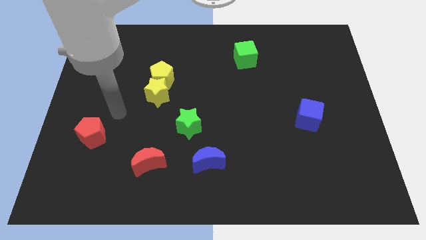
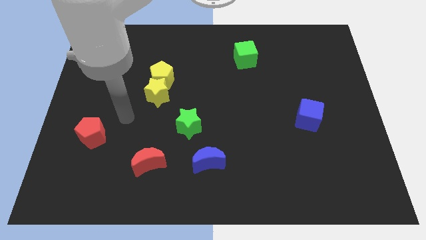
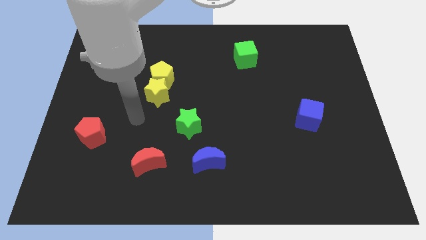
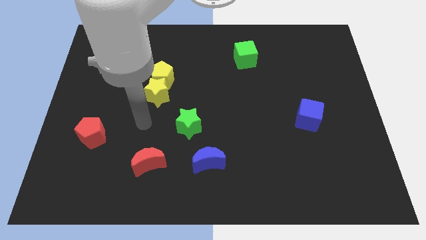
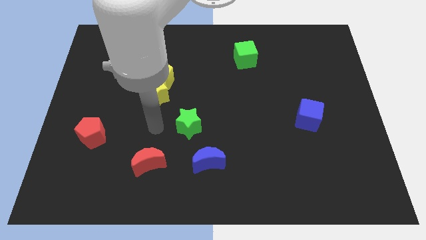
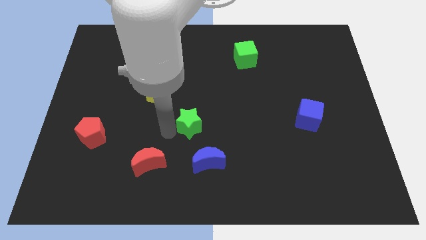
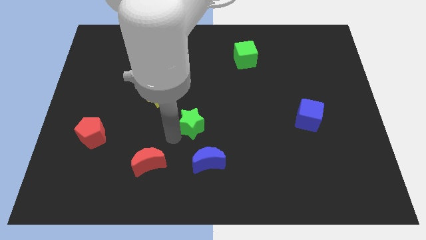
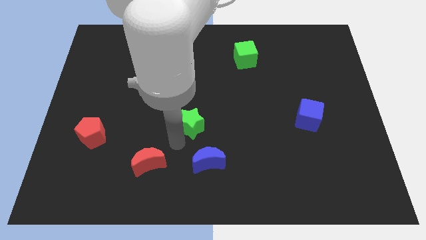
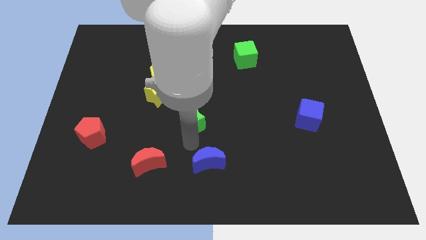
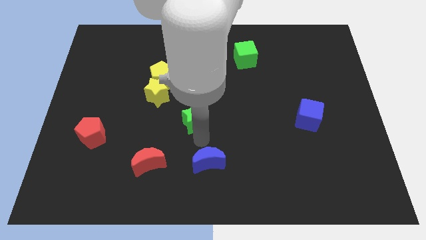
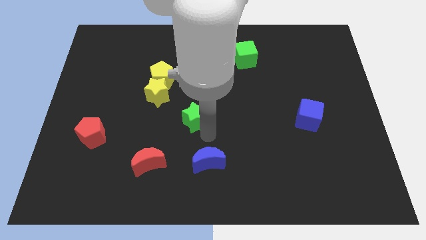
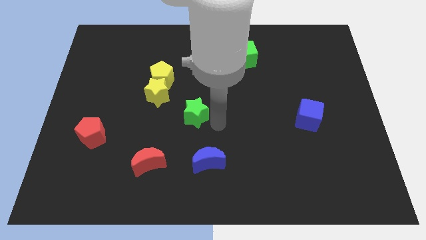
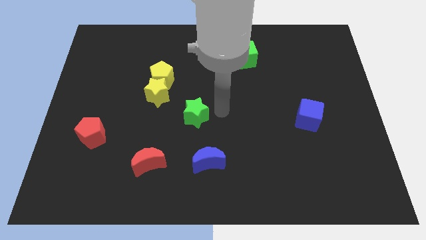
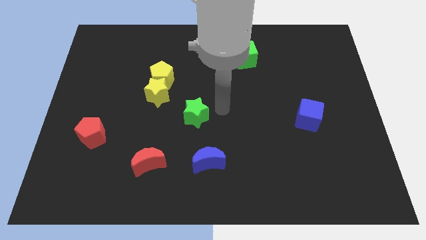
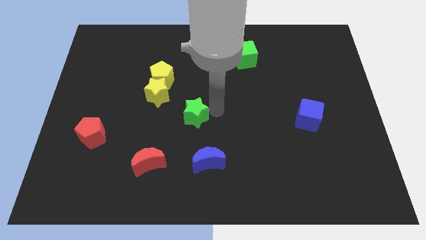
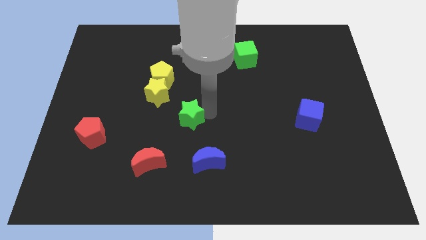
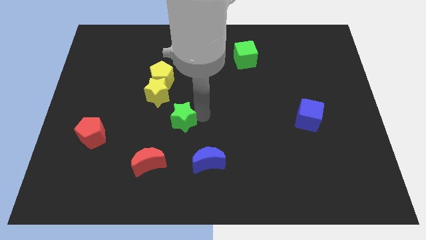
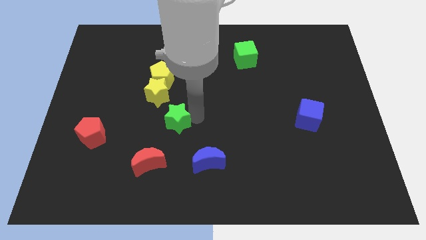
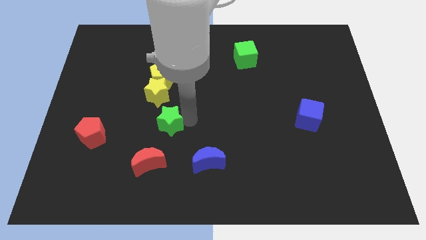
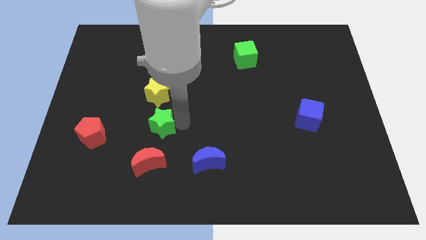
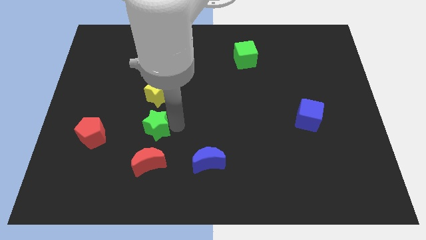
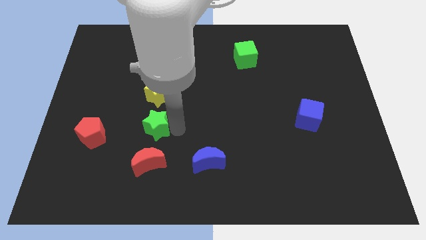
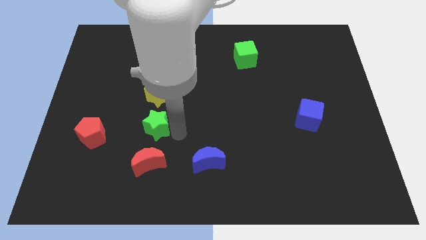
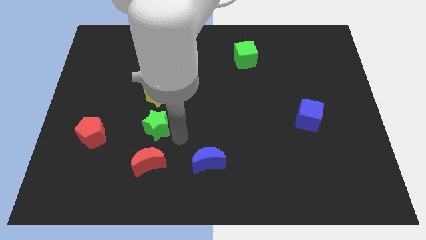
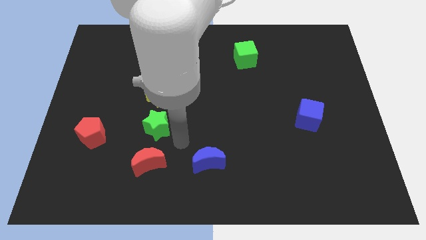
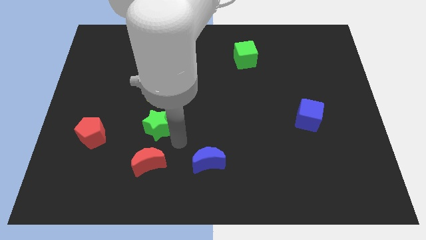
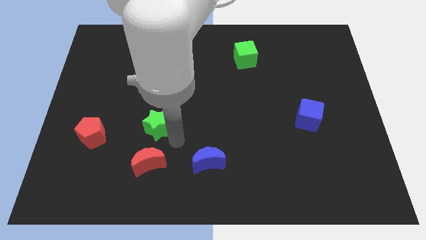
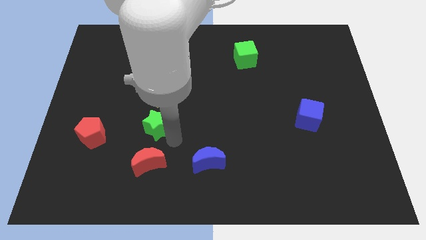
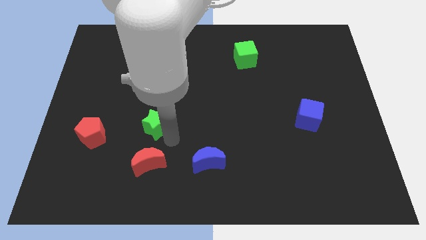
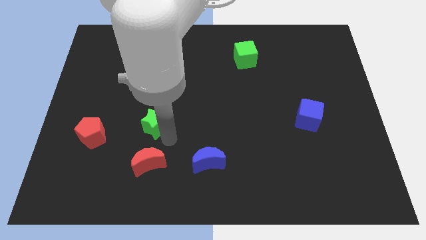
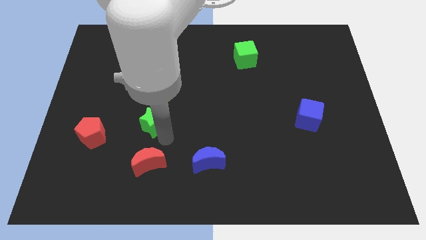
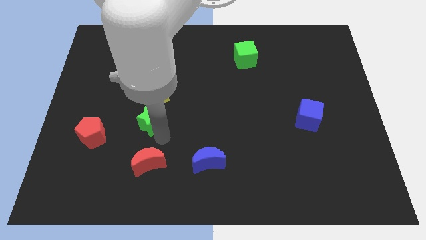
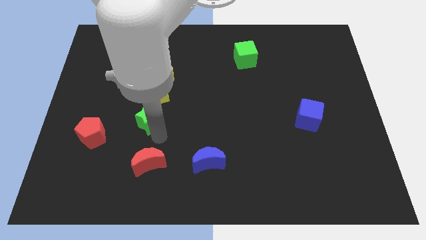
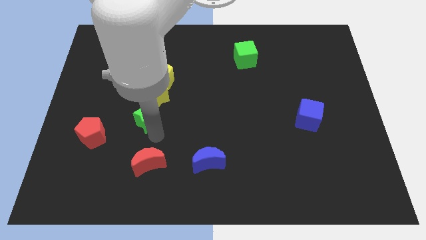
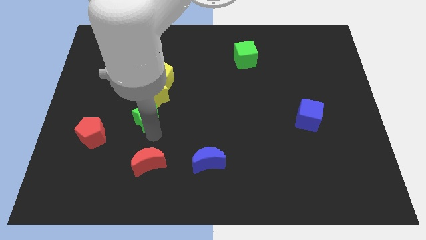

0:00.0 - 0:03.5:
push the green star slightly diagonally upwards and left

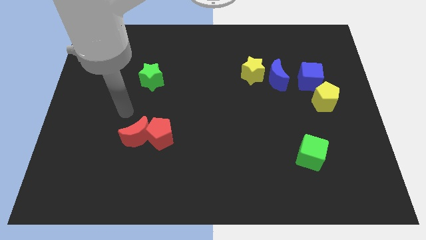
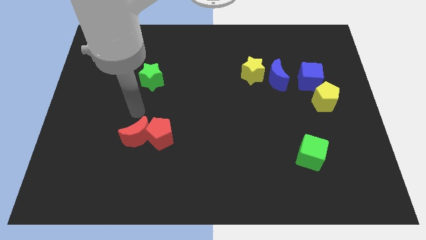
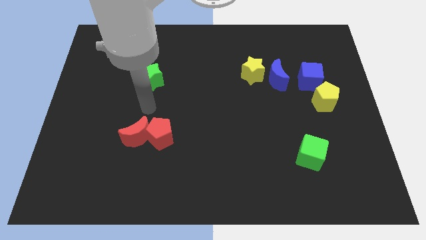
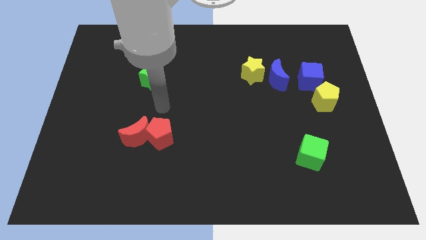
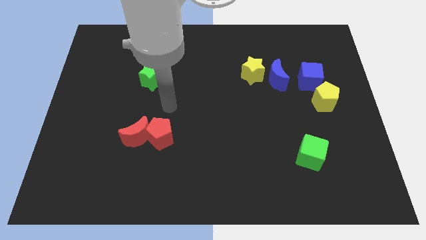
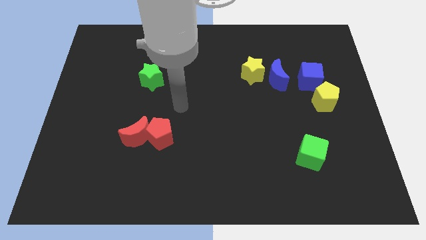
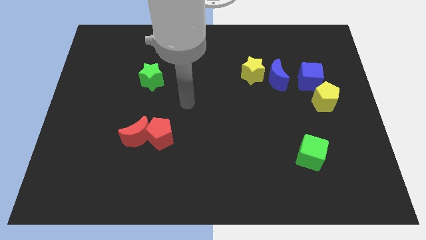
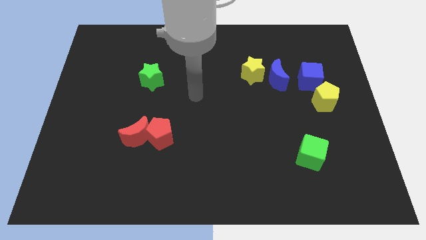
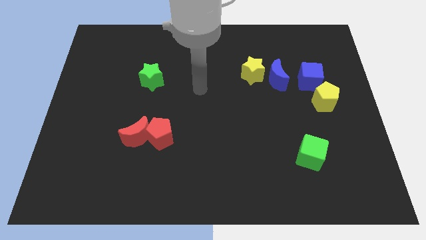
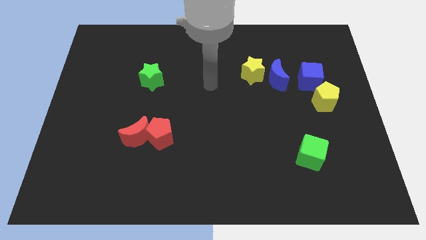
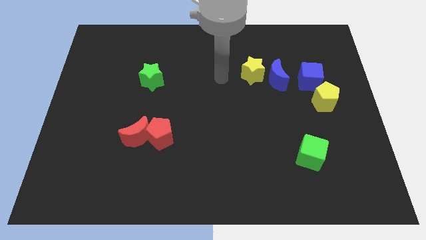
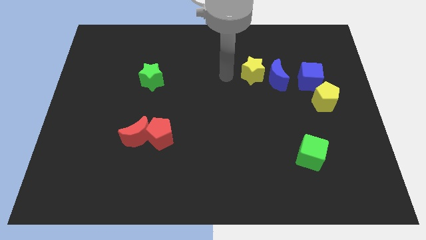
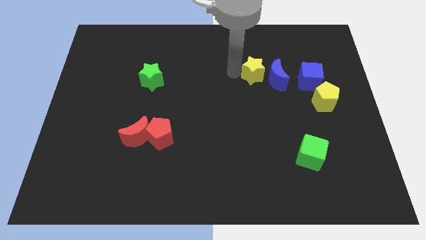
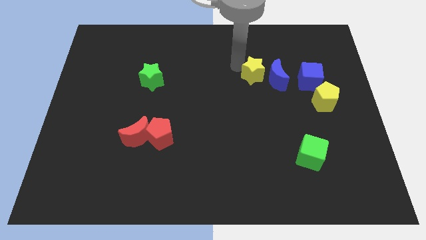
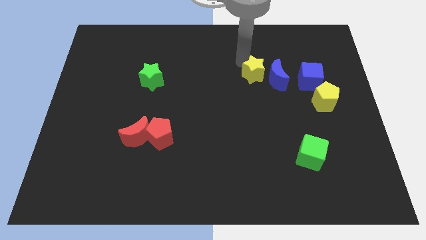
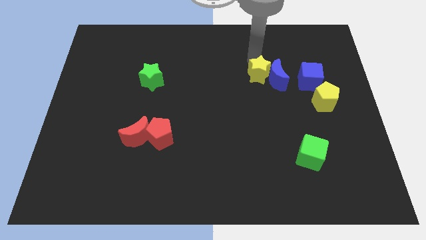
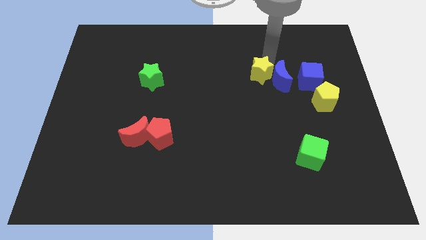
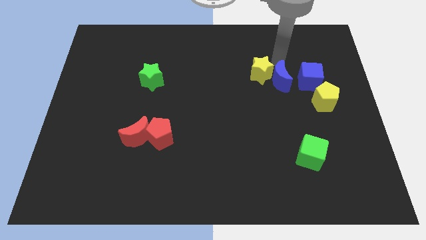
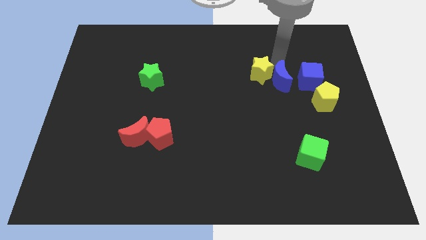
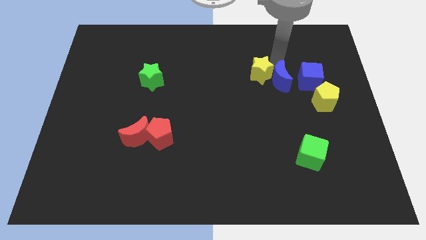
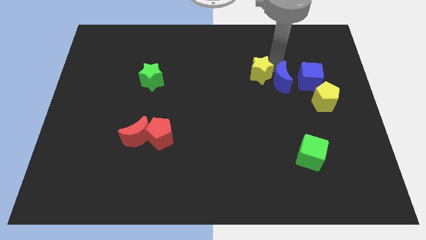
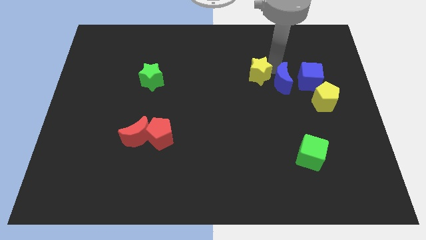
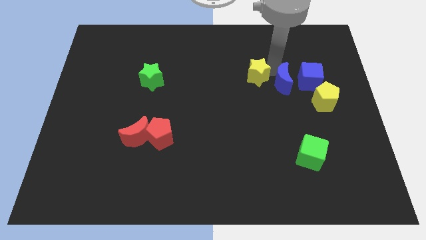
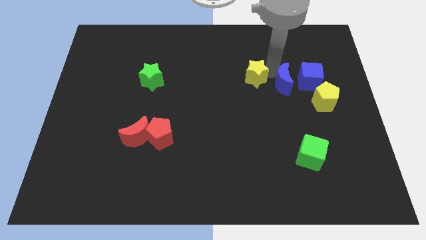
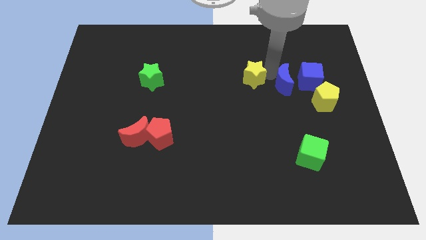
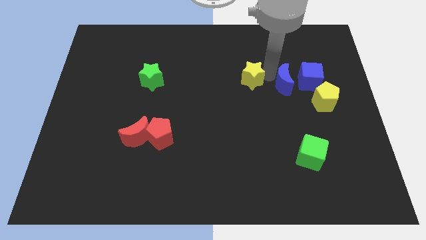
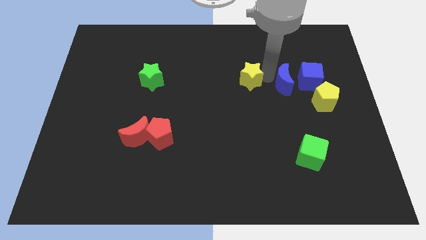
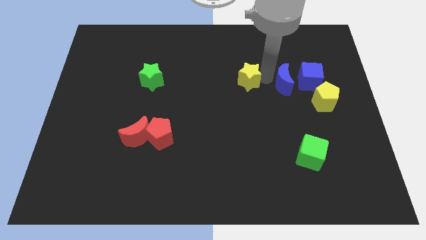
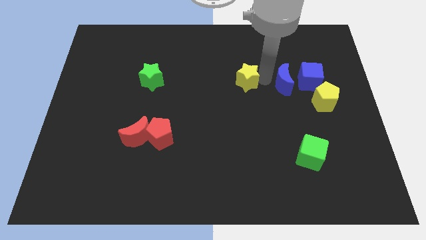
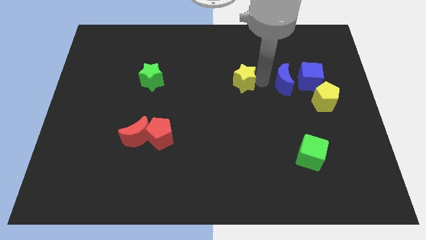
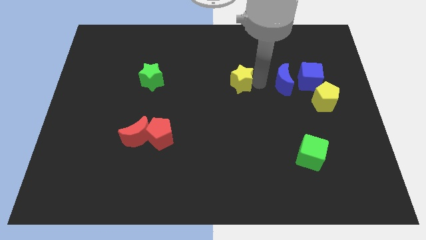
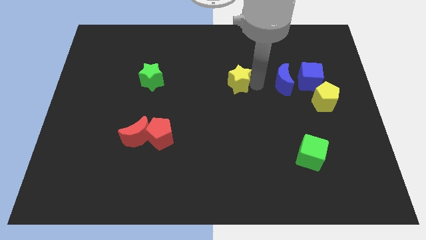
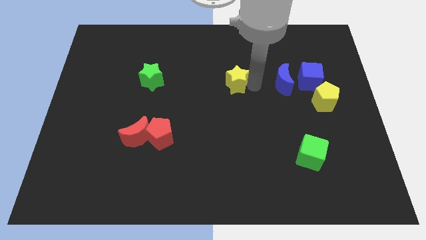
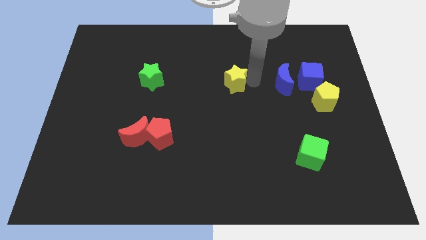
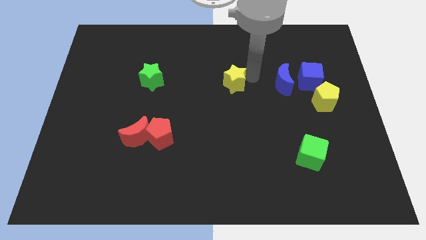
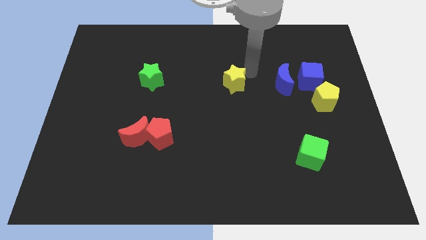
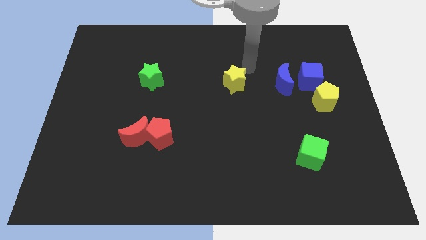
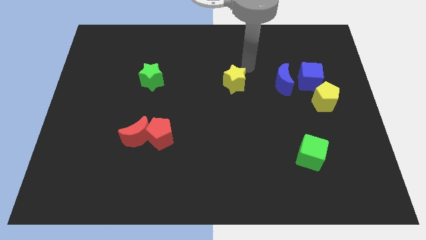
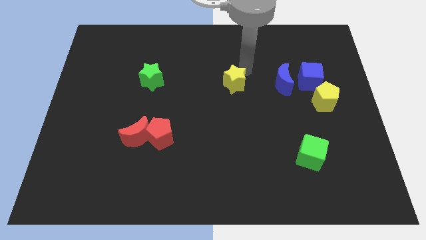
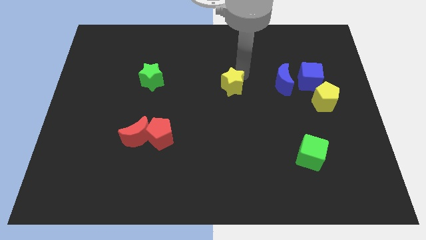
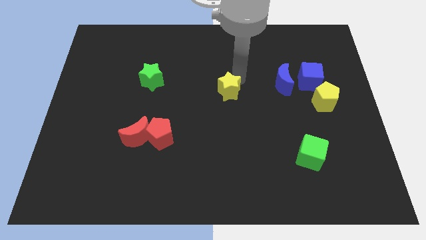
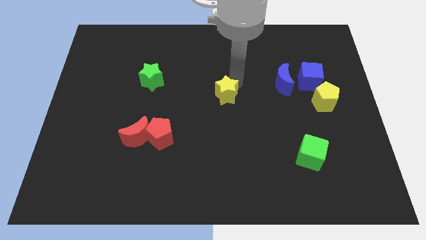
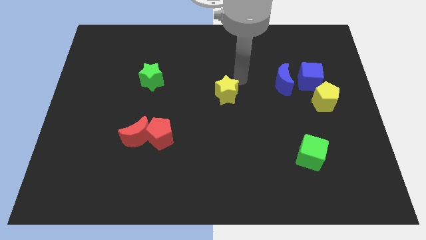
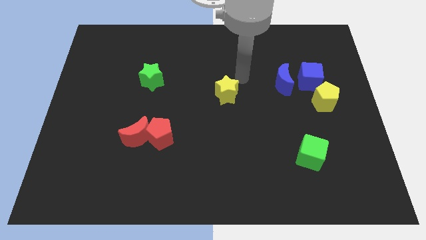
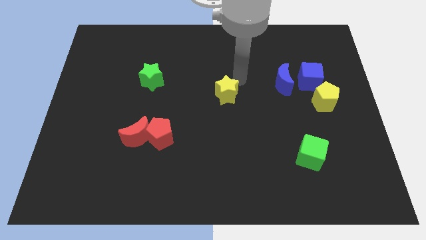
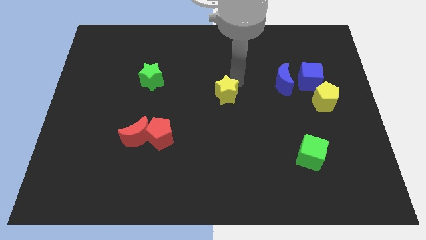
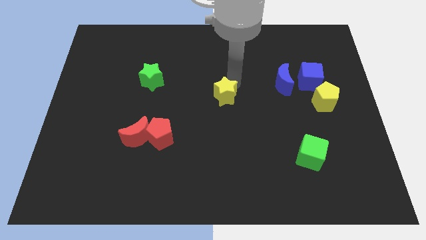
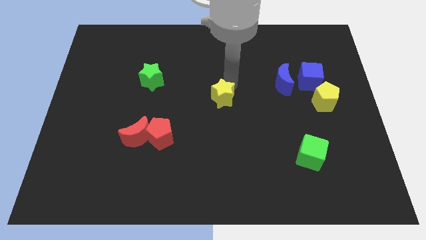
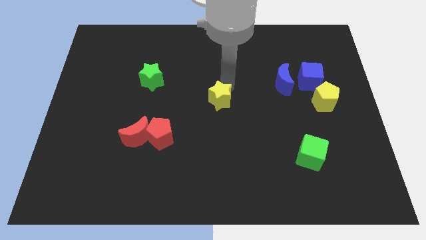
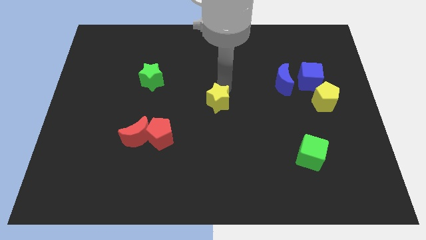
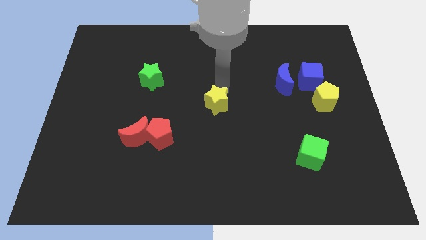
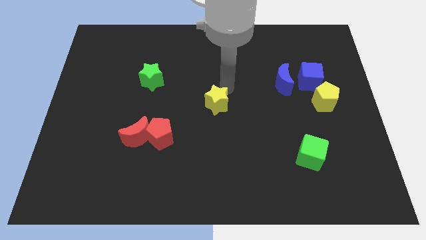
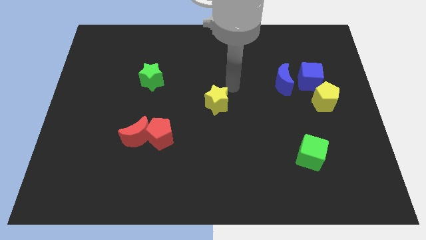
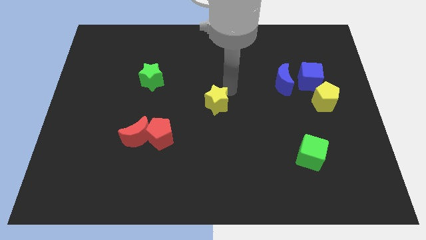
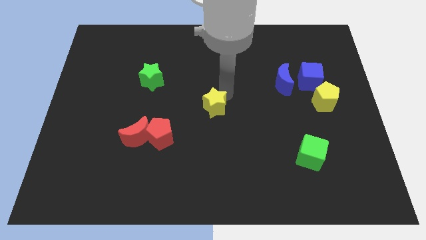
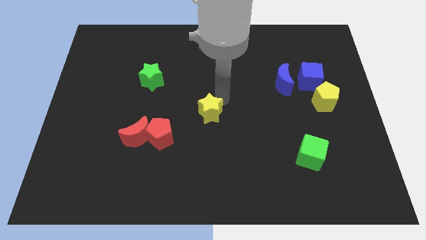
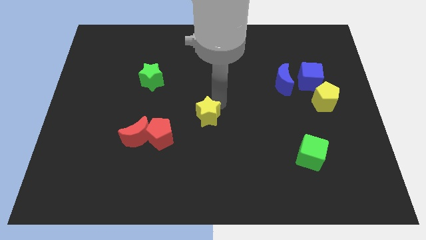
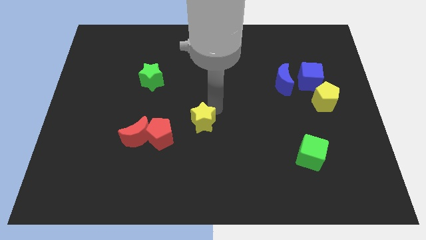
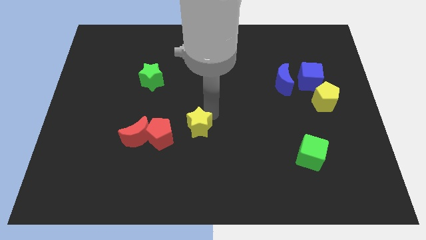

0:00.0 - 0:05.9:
slide the yellow star downwards and to the left diagonally
